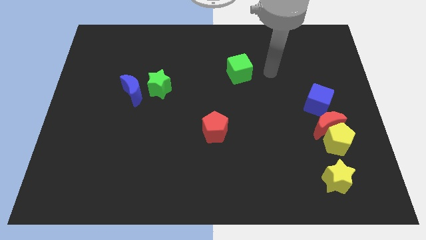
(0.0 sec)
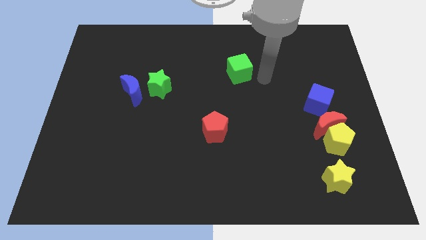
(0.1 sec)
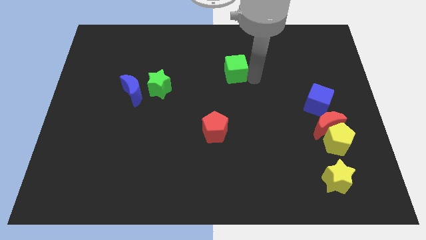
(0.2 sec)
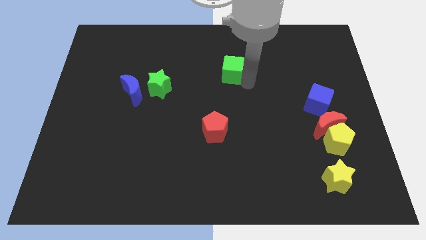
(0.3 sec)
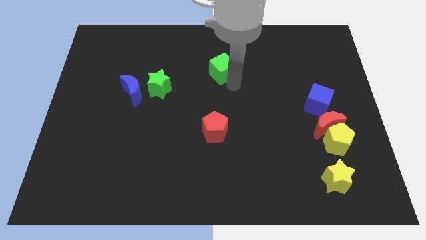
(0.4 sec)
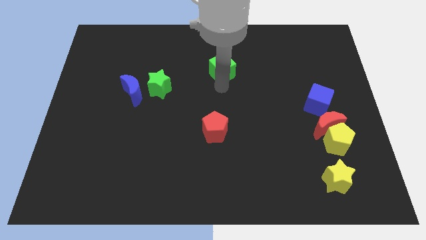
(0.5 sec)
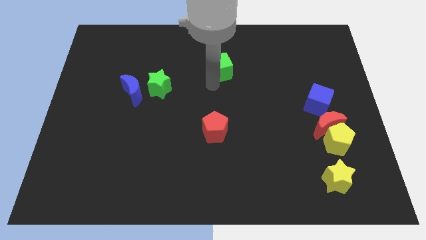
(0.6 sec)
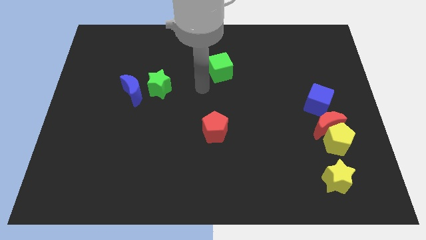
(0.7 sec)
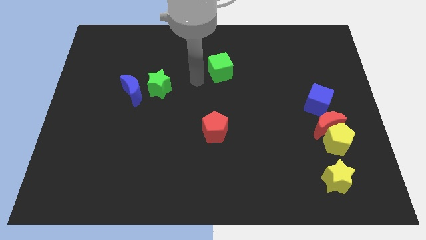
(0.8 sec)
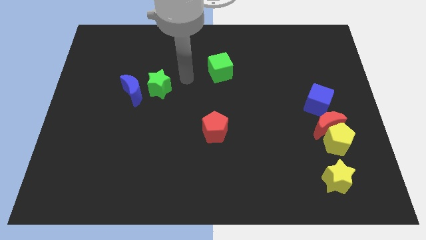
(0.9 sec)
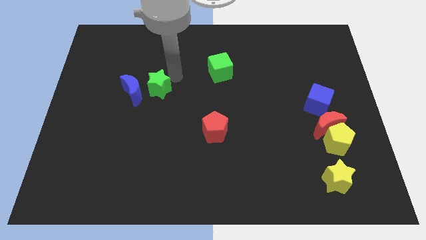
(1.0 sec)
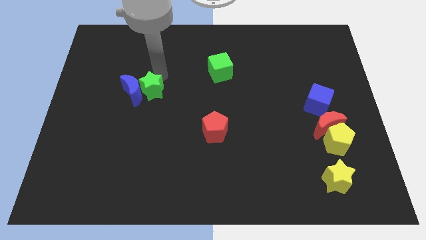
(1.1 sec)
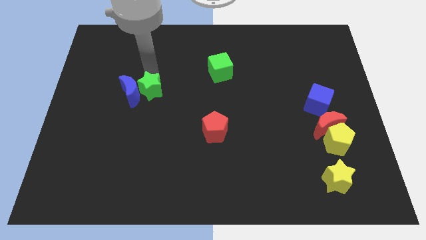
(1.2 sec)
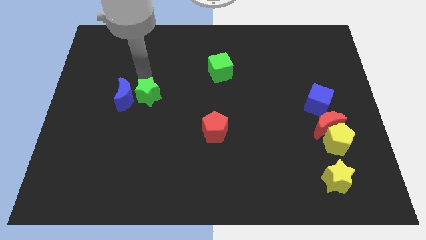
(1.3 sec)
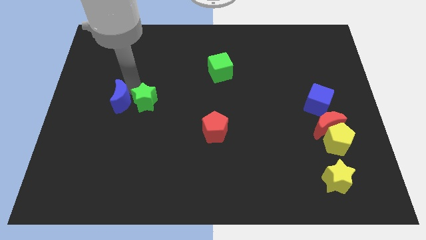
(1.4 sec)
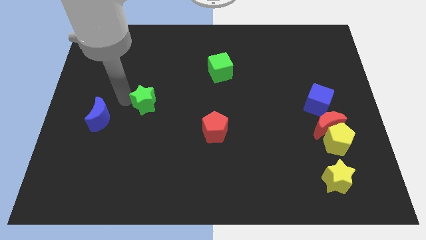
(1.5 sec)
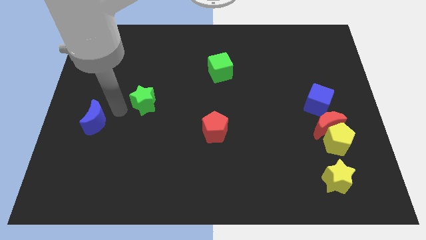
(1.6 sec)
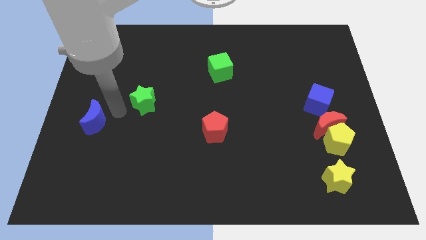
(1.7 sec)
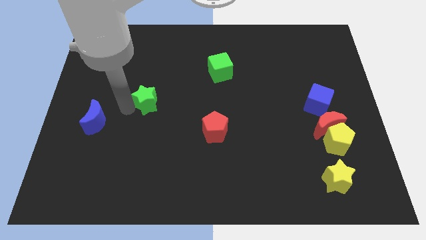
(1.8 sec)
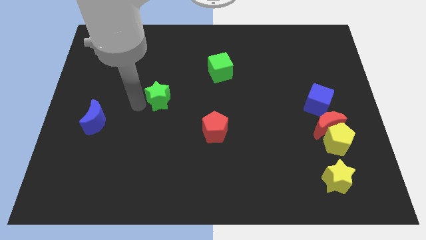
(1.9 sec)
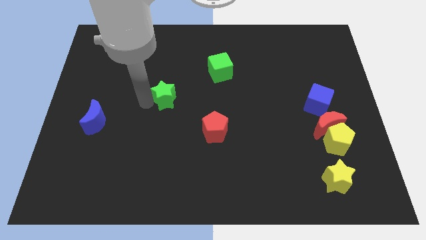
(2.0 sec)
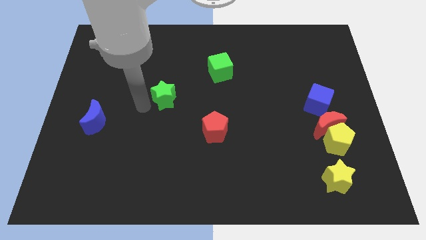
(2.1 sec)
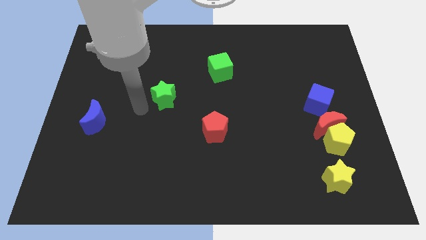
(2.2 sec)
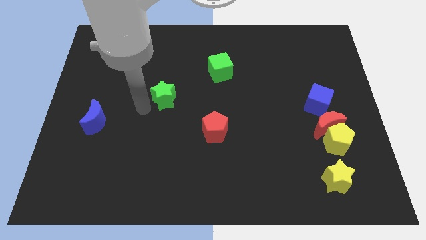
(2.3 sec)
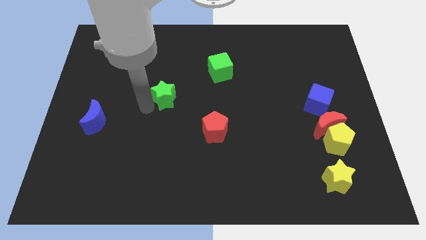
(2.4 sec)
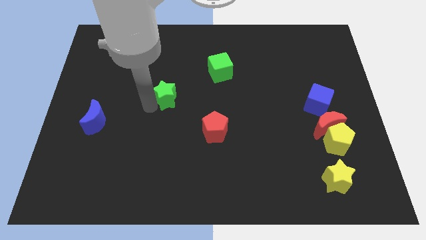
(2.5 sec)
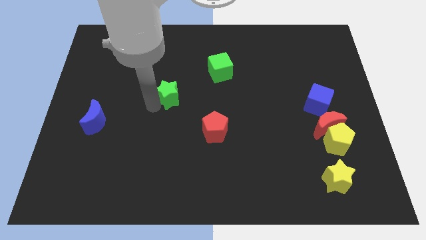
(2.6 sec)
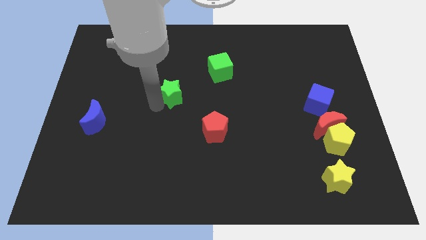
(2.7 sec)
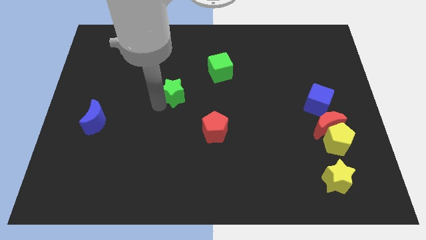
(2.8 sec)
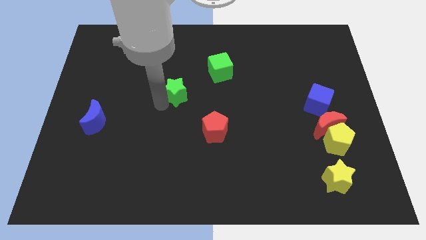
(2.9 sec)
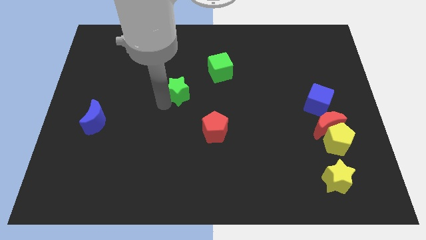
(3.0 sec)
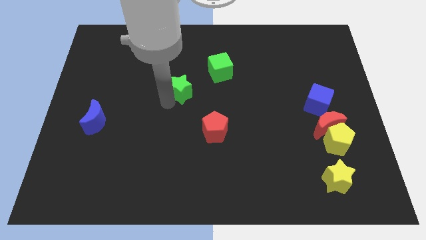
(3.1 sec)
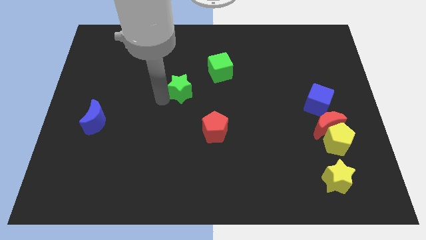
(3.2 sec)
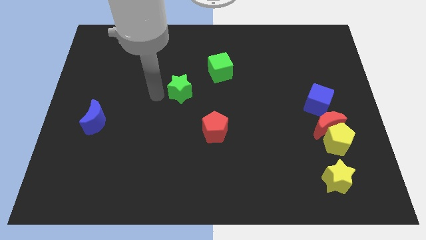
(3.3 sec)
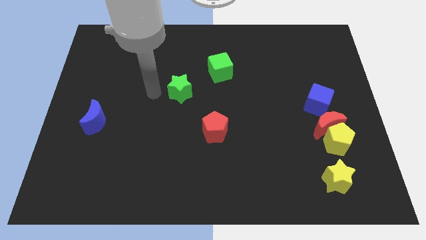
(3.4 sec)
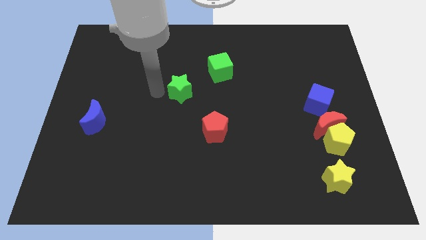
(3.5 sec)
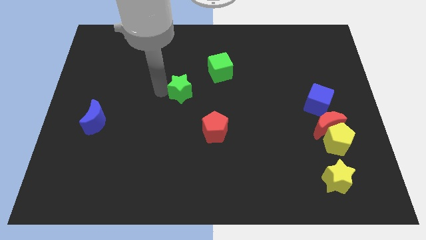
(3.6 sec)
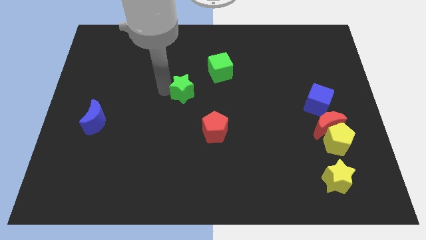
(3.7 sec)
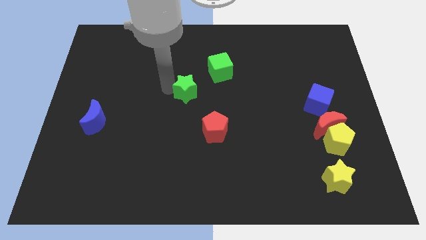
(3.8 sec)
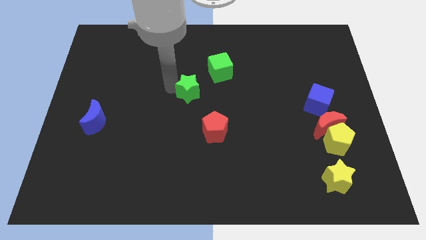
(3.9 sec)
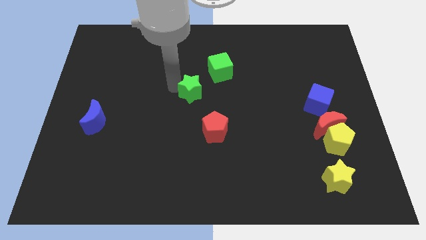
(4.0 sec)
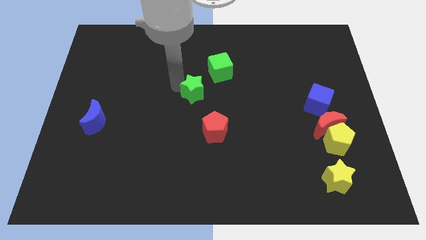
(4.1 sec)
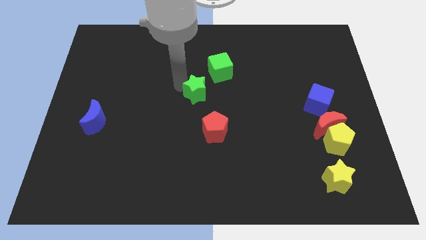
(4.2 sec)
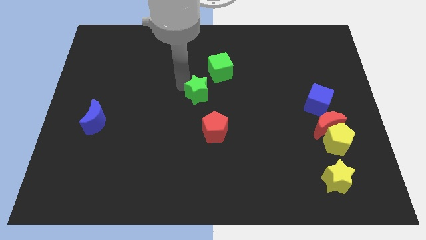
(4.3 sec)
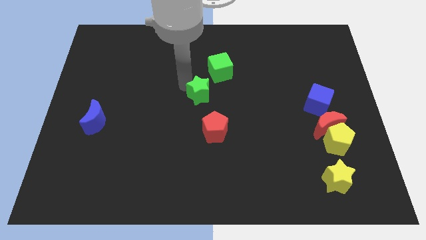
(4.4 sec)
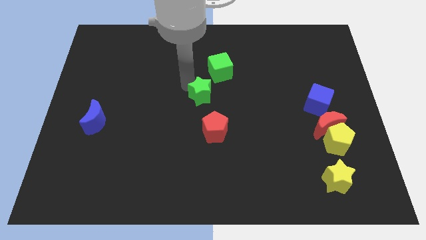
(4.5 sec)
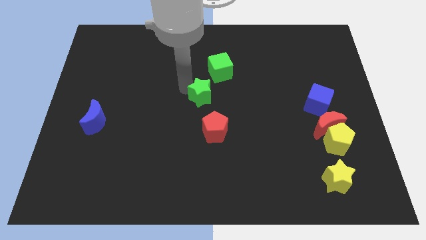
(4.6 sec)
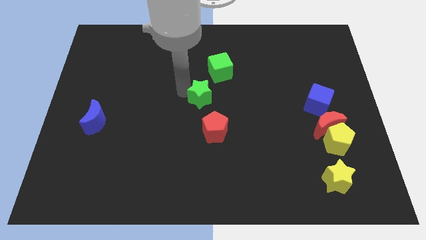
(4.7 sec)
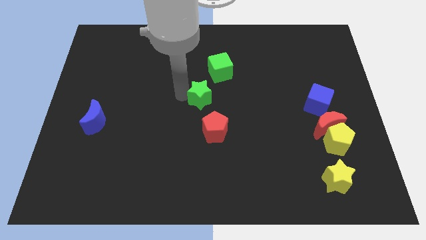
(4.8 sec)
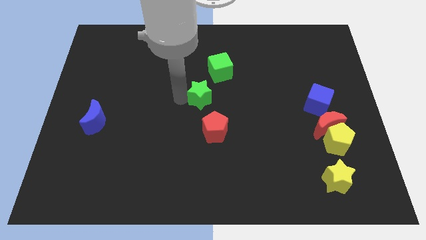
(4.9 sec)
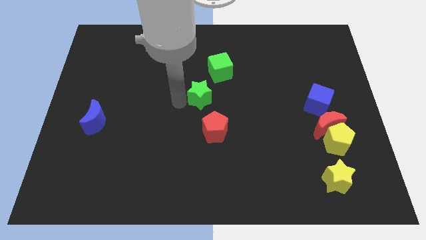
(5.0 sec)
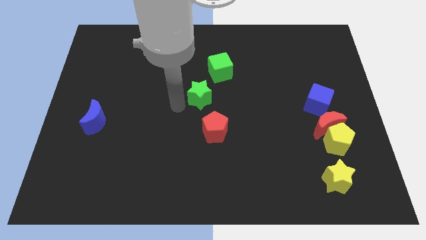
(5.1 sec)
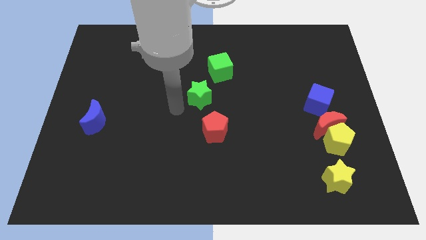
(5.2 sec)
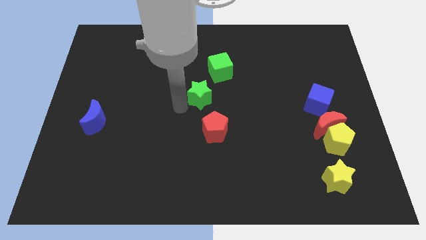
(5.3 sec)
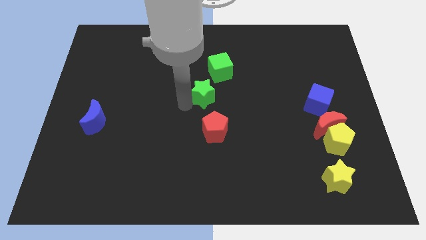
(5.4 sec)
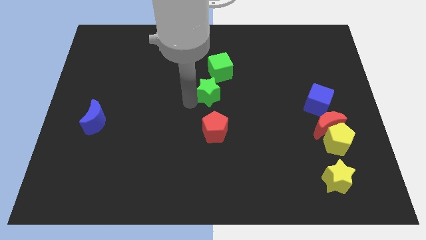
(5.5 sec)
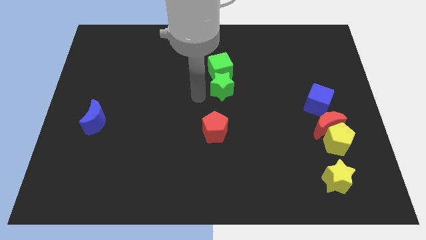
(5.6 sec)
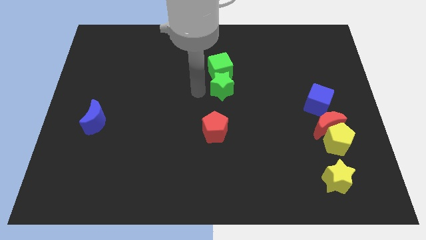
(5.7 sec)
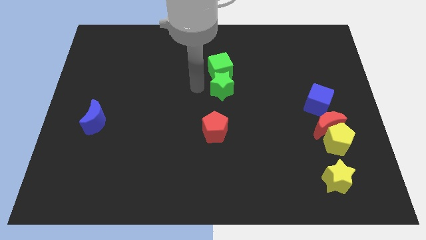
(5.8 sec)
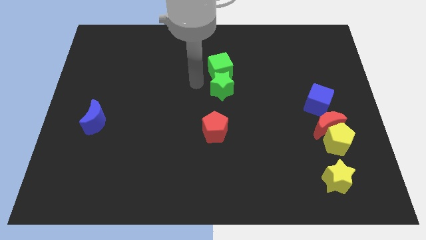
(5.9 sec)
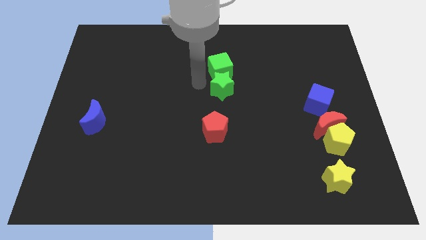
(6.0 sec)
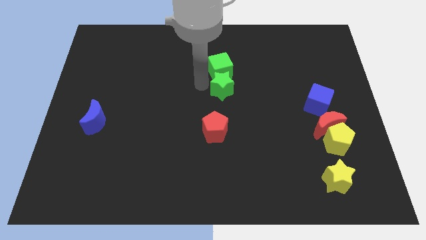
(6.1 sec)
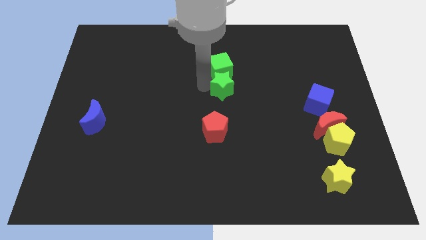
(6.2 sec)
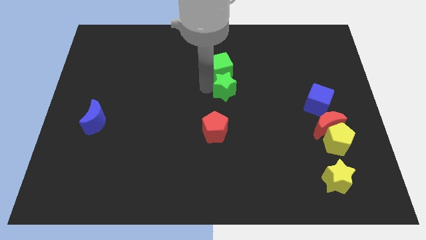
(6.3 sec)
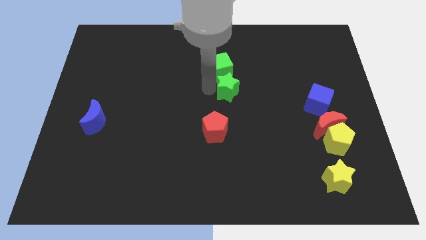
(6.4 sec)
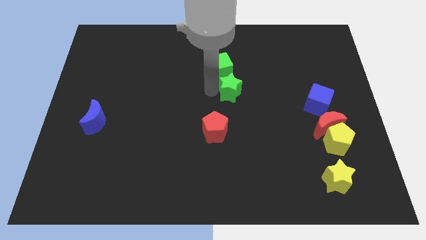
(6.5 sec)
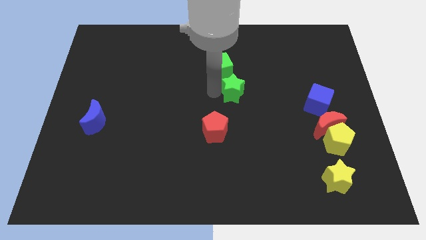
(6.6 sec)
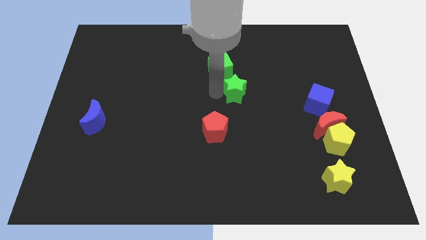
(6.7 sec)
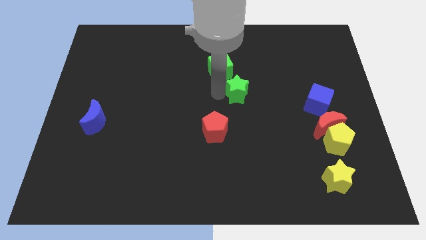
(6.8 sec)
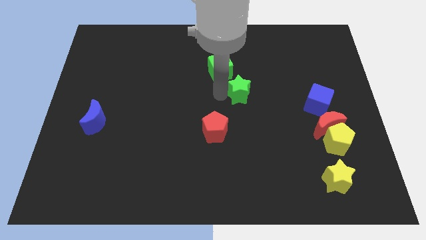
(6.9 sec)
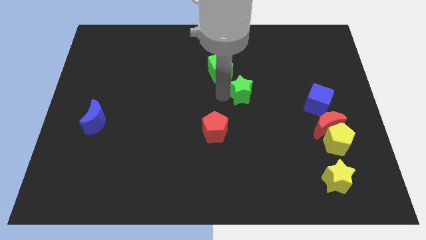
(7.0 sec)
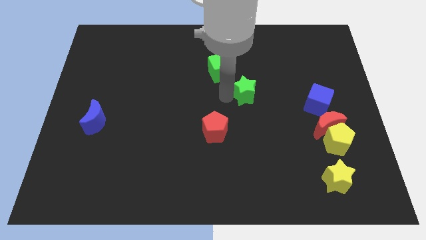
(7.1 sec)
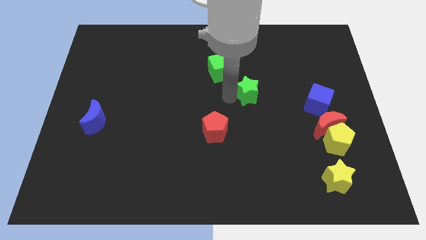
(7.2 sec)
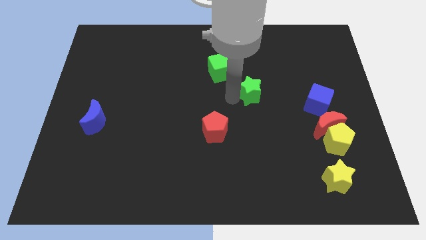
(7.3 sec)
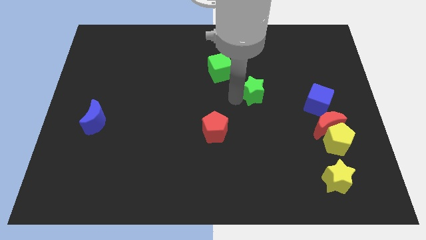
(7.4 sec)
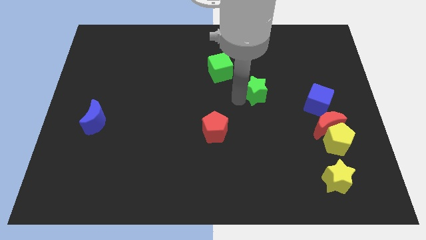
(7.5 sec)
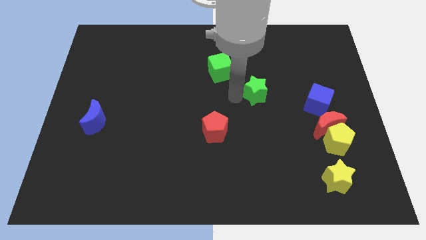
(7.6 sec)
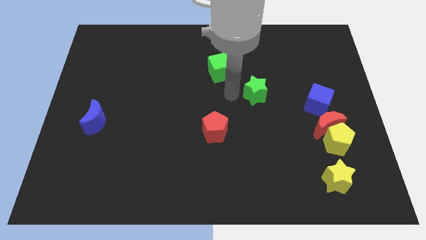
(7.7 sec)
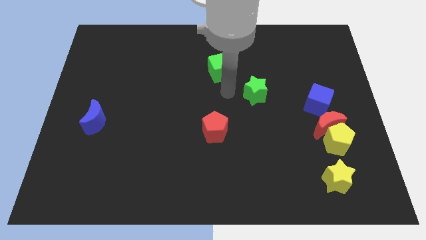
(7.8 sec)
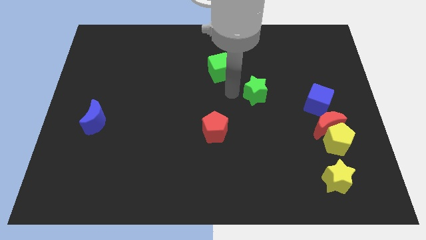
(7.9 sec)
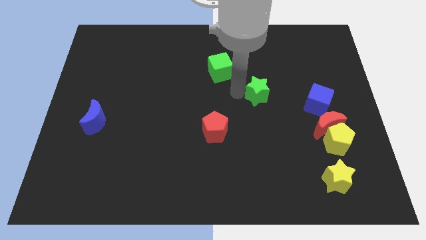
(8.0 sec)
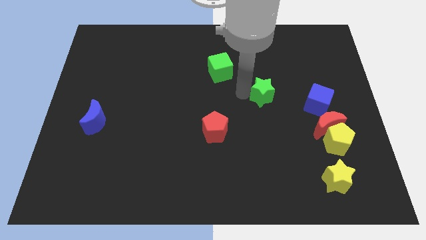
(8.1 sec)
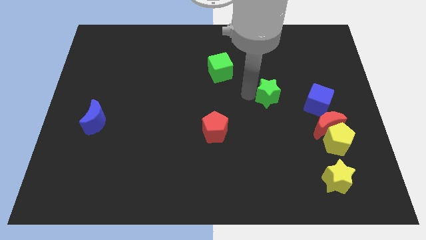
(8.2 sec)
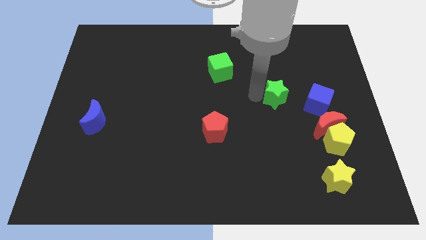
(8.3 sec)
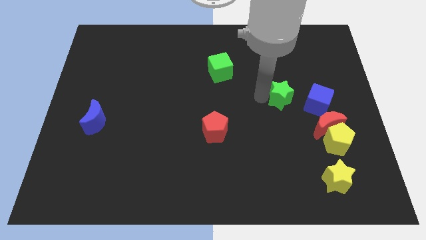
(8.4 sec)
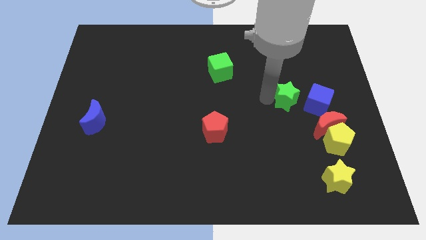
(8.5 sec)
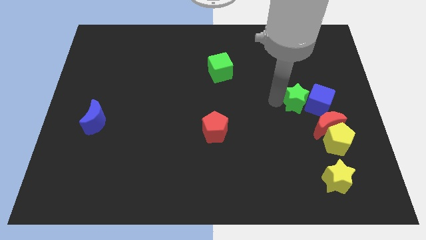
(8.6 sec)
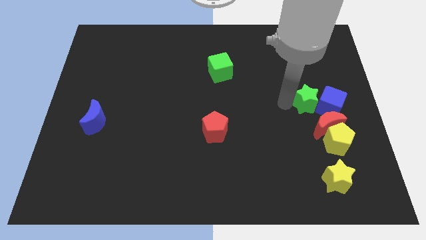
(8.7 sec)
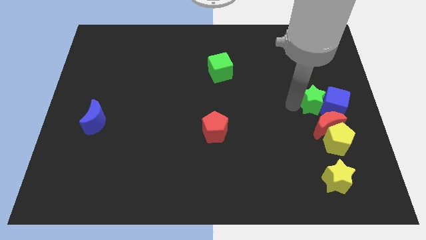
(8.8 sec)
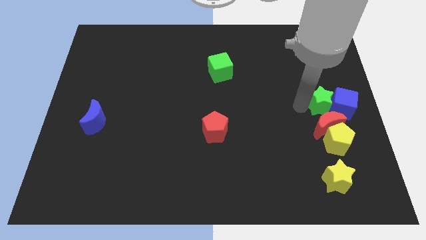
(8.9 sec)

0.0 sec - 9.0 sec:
put the green star to the right side of the board
